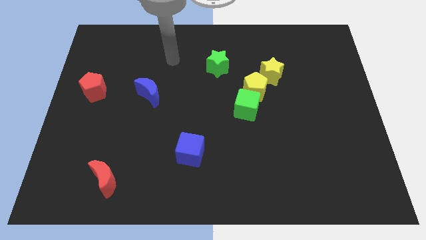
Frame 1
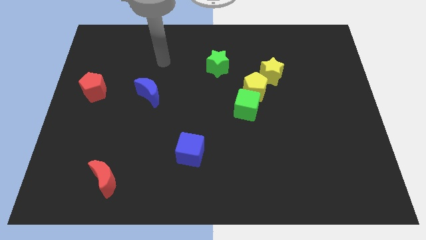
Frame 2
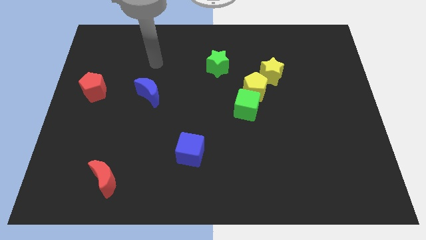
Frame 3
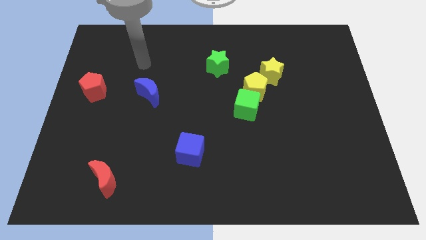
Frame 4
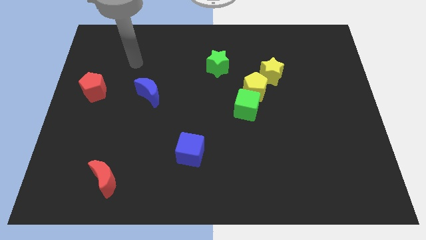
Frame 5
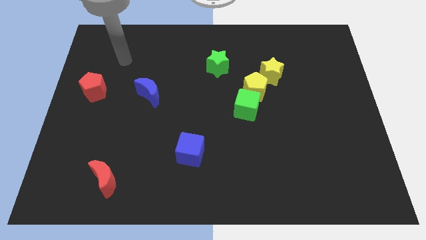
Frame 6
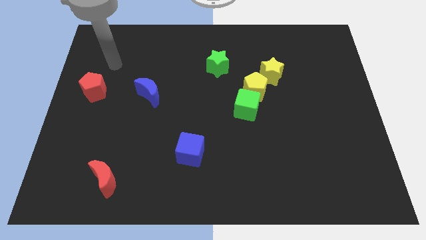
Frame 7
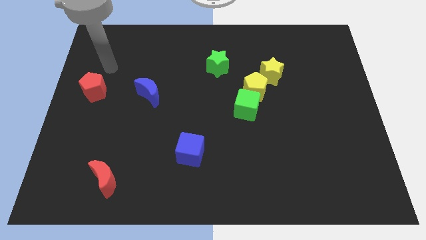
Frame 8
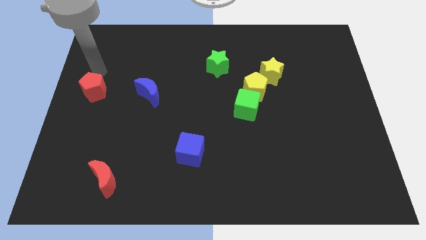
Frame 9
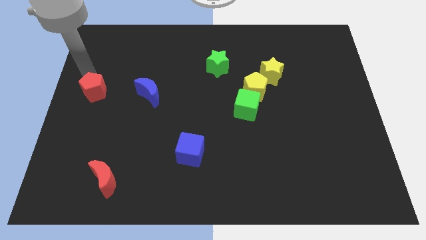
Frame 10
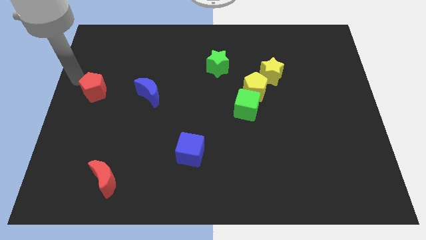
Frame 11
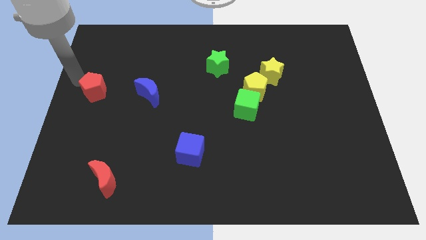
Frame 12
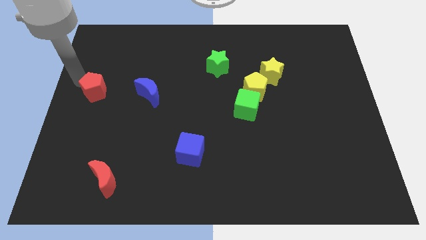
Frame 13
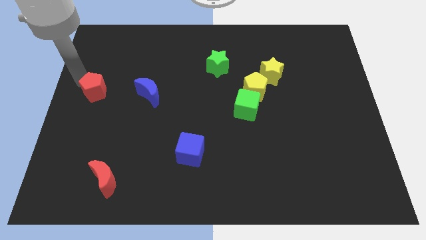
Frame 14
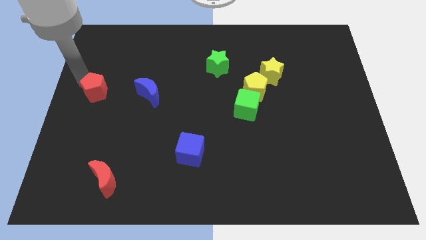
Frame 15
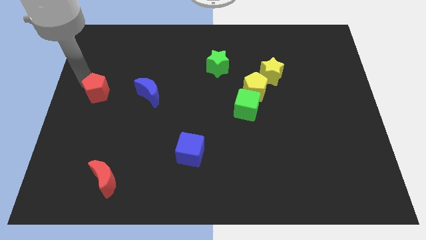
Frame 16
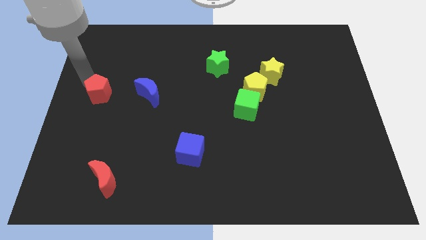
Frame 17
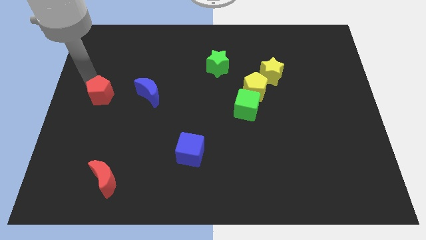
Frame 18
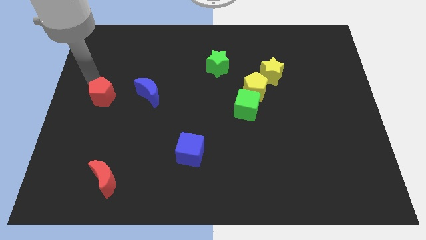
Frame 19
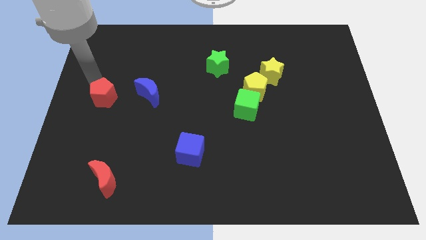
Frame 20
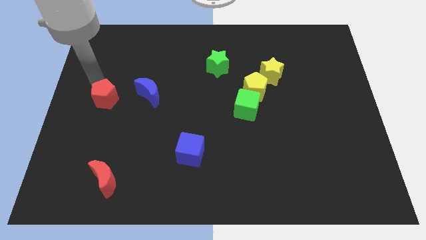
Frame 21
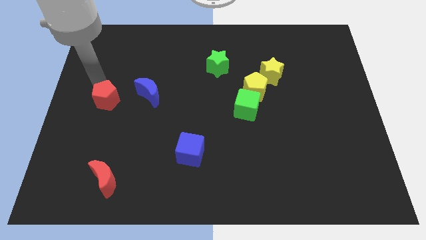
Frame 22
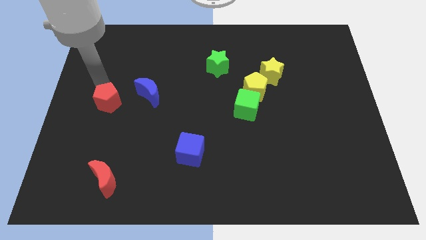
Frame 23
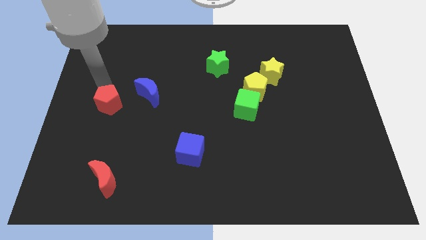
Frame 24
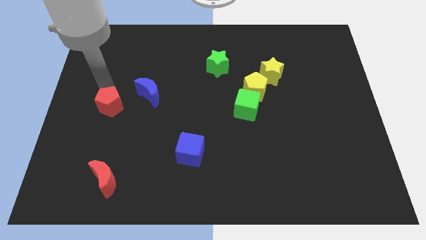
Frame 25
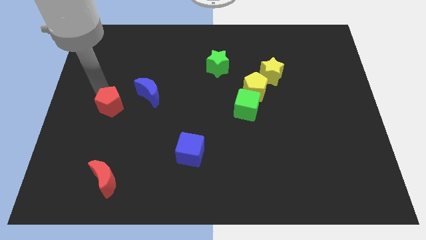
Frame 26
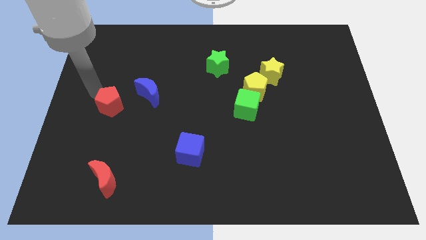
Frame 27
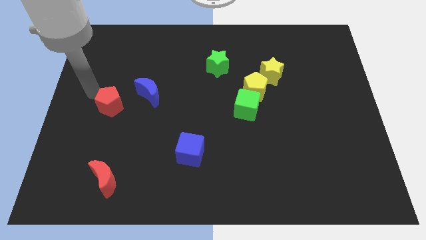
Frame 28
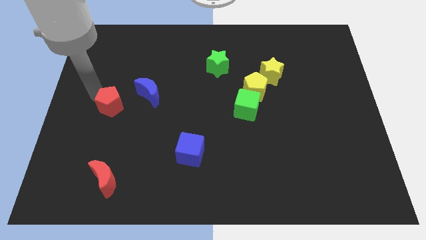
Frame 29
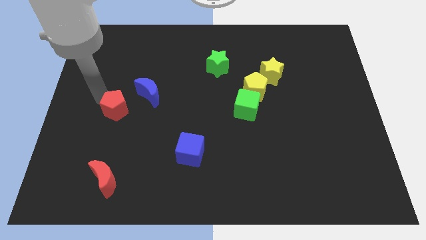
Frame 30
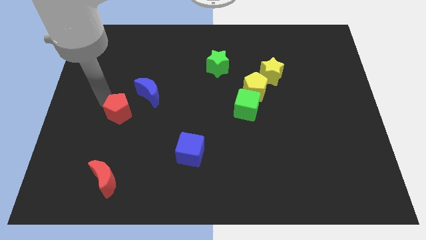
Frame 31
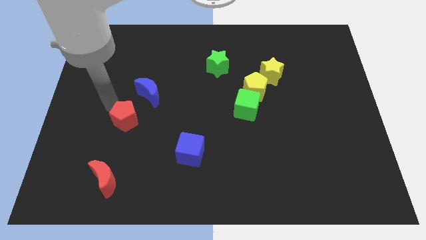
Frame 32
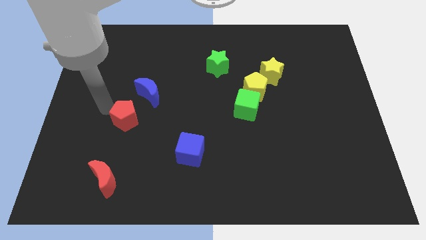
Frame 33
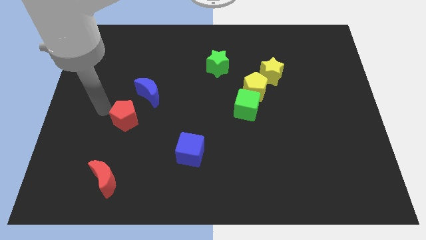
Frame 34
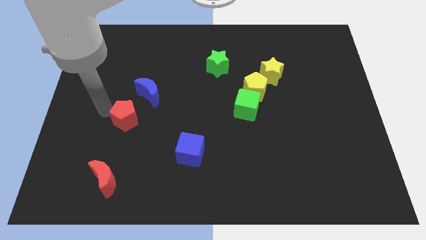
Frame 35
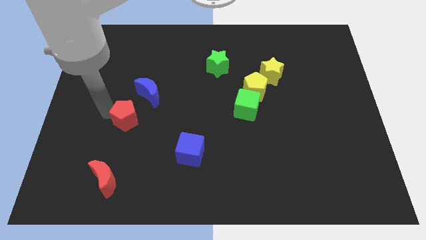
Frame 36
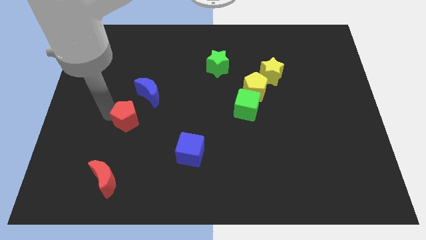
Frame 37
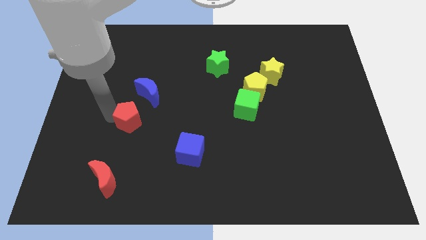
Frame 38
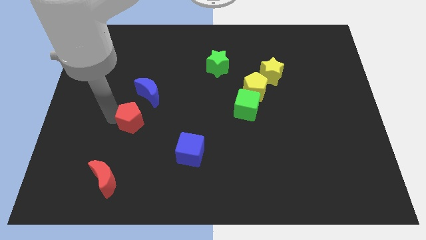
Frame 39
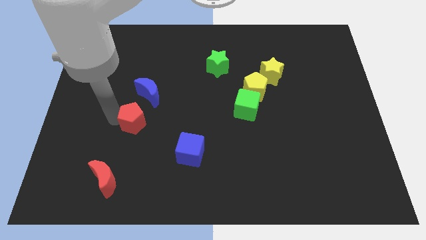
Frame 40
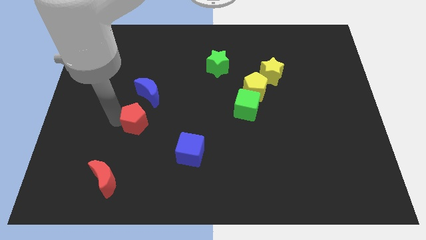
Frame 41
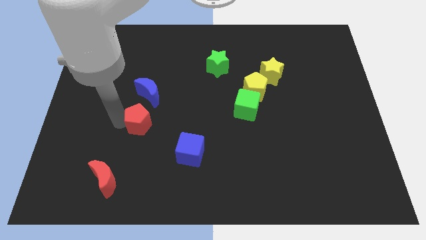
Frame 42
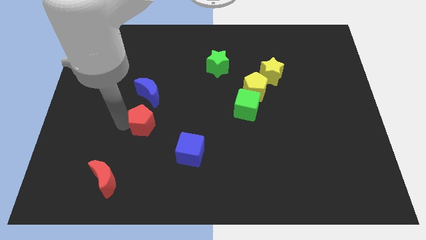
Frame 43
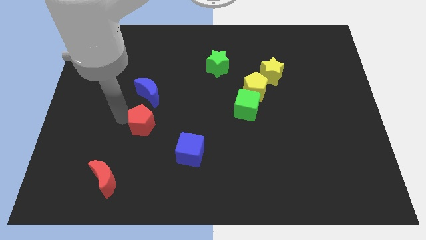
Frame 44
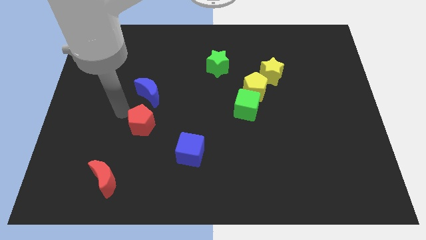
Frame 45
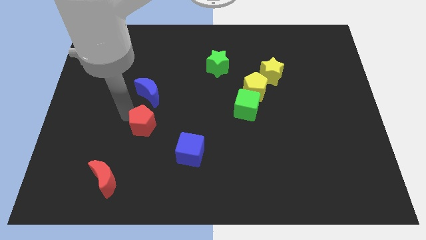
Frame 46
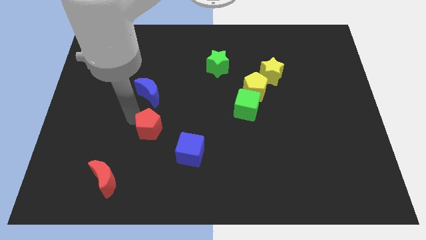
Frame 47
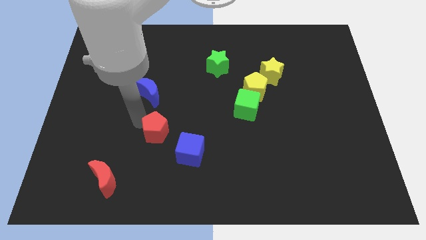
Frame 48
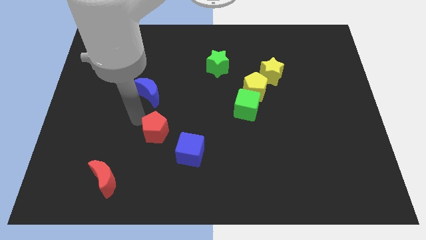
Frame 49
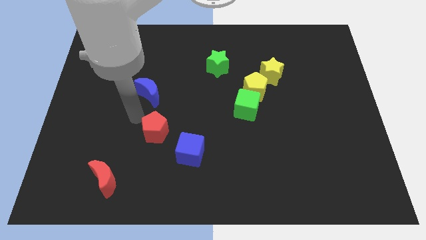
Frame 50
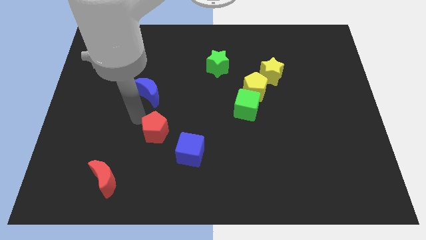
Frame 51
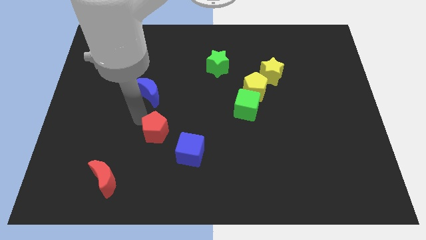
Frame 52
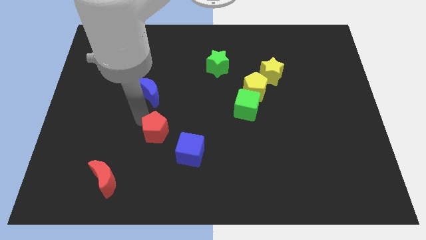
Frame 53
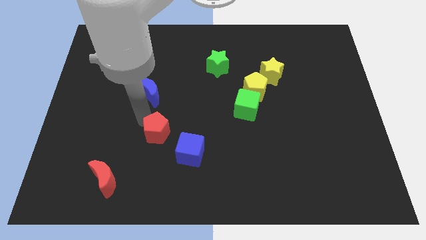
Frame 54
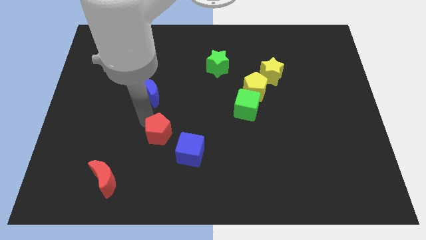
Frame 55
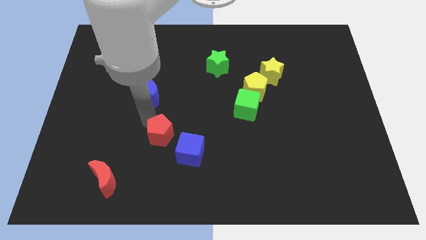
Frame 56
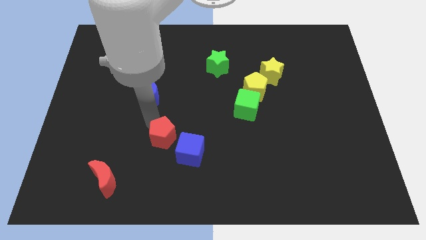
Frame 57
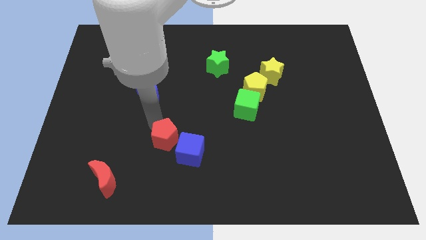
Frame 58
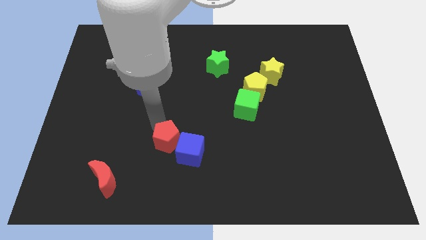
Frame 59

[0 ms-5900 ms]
slide the red pentagon to the blue cube

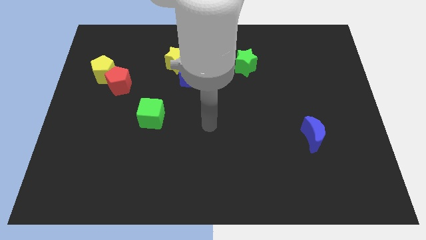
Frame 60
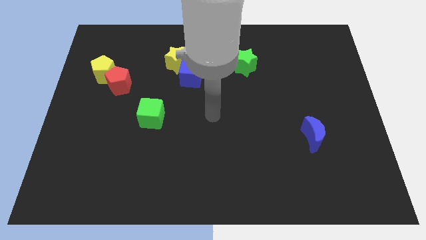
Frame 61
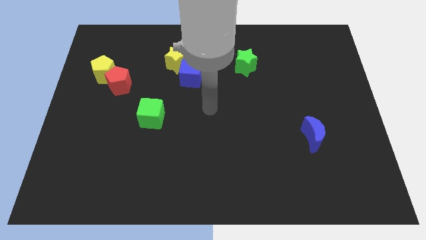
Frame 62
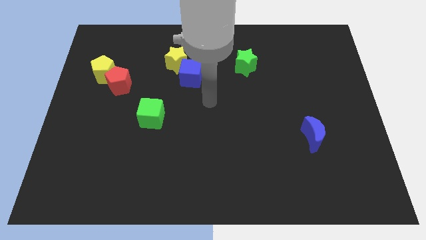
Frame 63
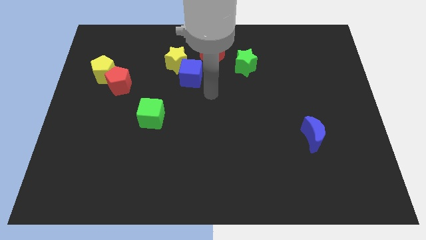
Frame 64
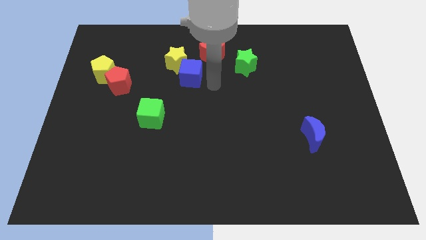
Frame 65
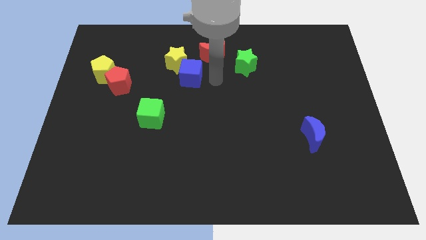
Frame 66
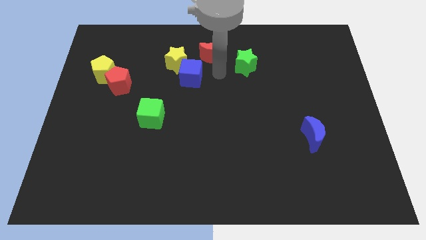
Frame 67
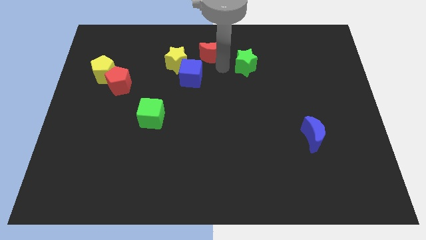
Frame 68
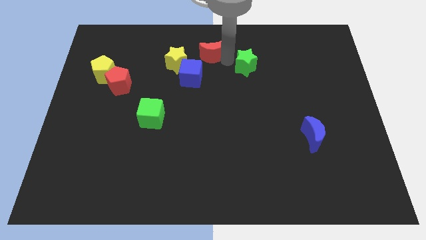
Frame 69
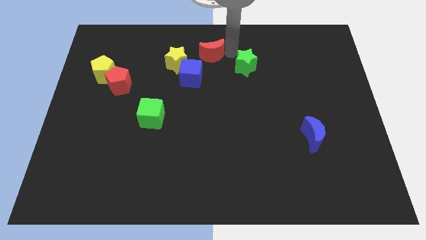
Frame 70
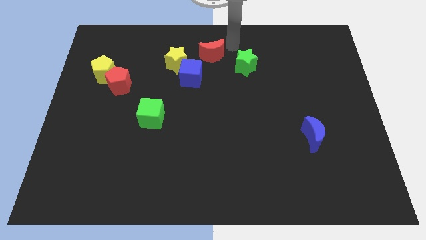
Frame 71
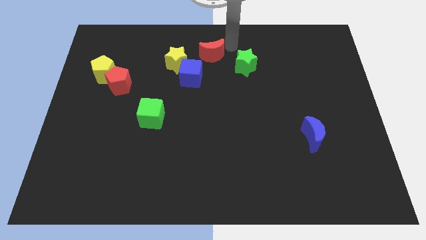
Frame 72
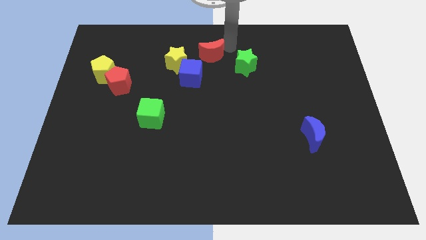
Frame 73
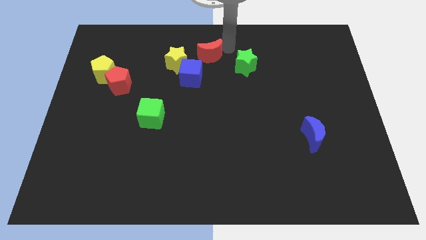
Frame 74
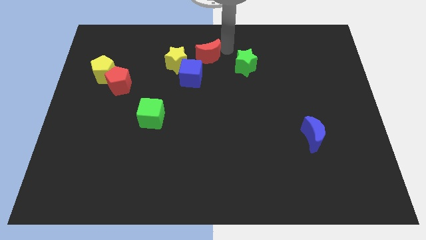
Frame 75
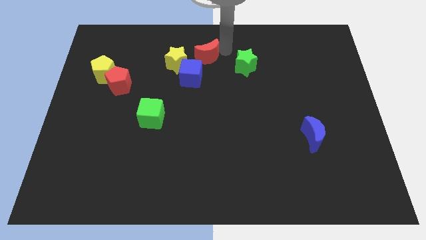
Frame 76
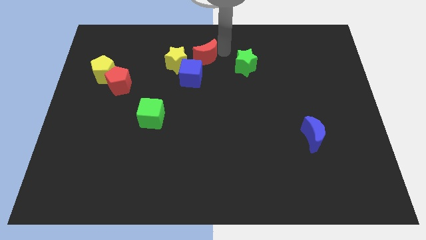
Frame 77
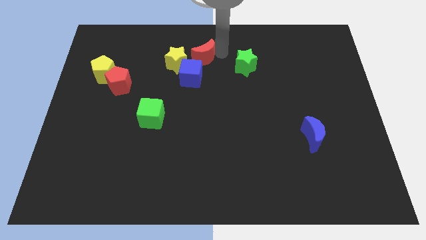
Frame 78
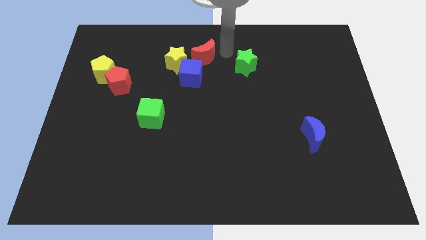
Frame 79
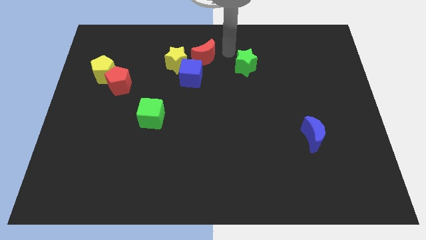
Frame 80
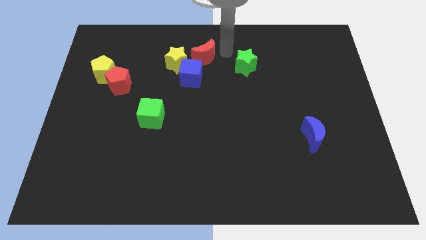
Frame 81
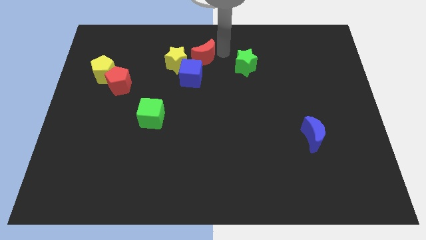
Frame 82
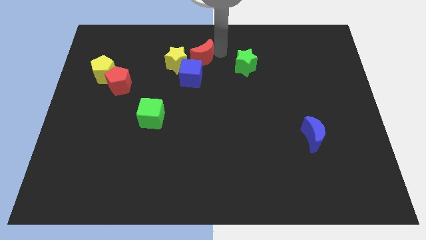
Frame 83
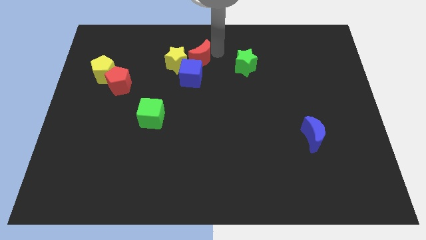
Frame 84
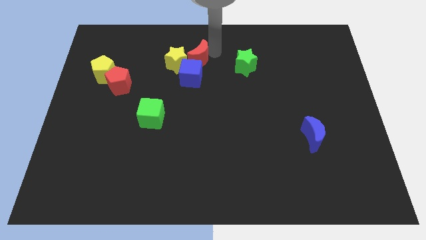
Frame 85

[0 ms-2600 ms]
move the red moon towards the yellow star
